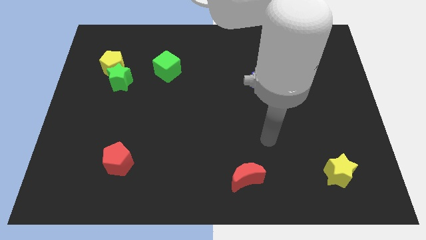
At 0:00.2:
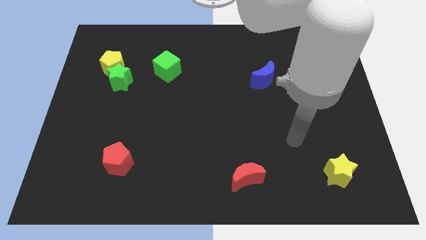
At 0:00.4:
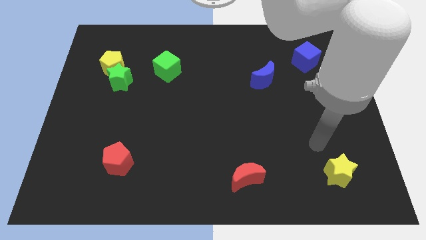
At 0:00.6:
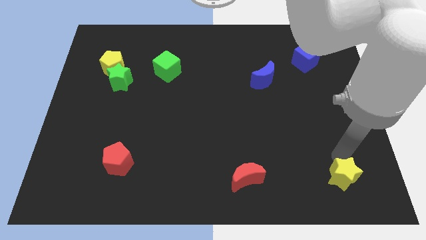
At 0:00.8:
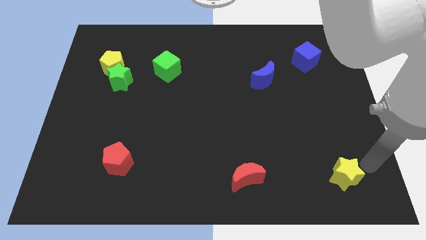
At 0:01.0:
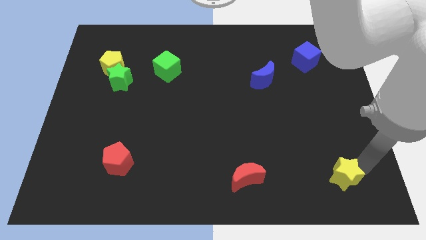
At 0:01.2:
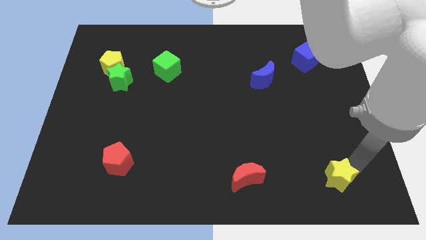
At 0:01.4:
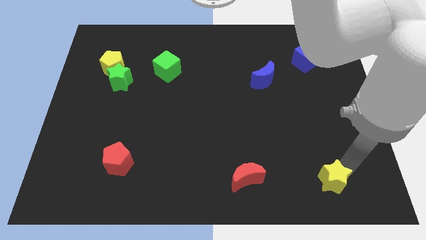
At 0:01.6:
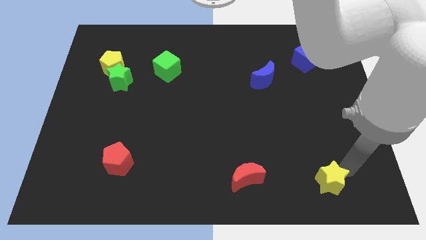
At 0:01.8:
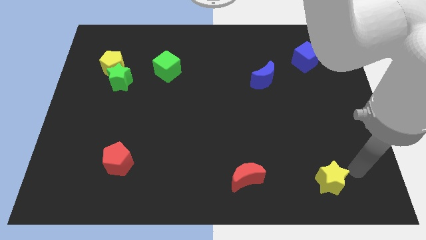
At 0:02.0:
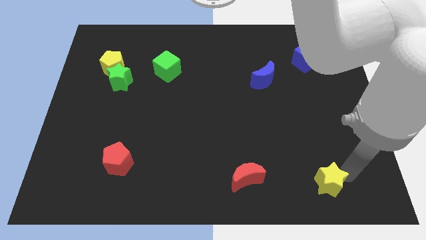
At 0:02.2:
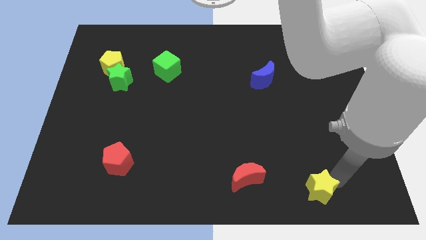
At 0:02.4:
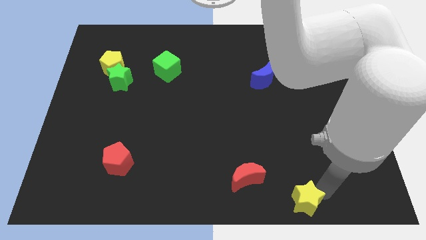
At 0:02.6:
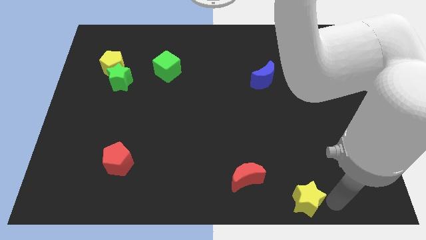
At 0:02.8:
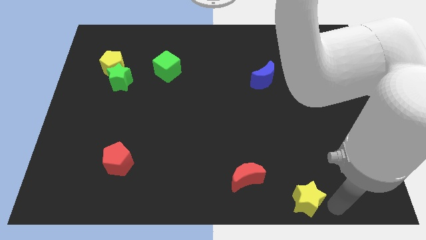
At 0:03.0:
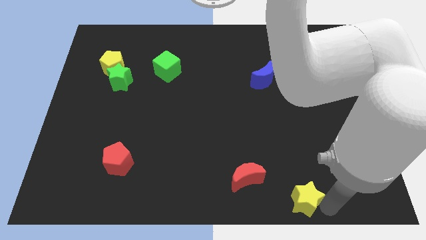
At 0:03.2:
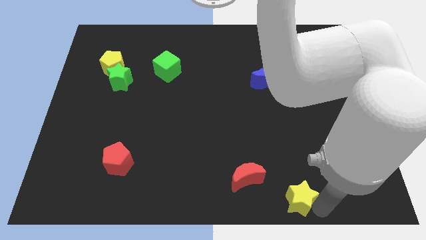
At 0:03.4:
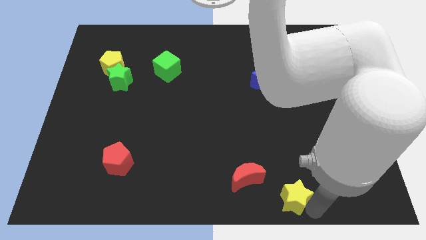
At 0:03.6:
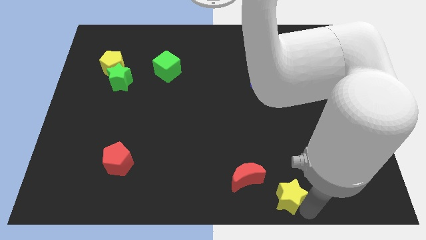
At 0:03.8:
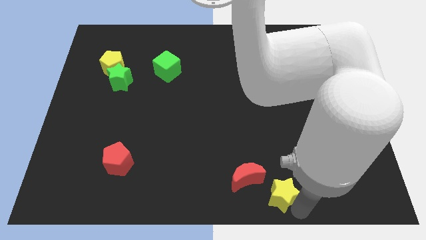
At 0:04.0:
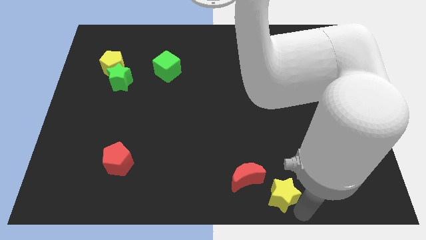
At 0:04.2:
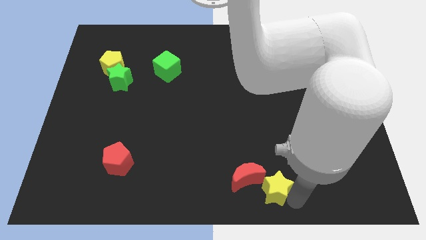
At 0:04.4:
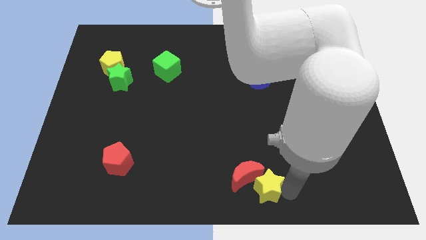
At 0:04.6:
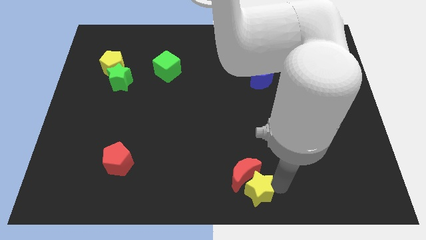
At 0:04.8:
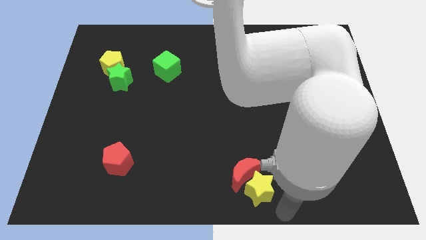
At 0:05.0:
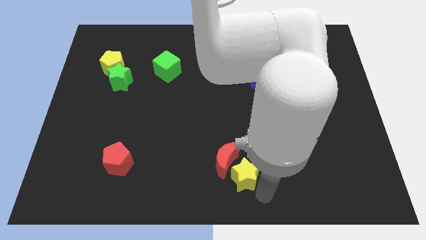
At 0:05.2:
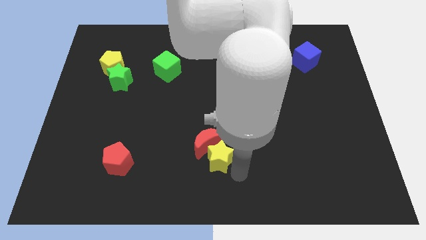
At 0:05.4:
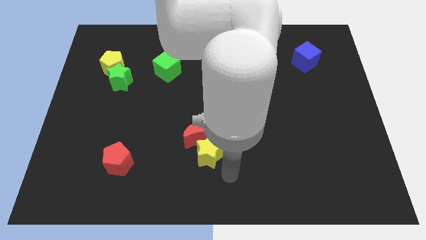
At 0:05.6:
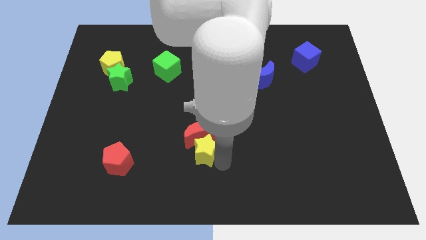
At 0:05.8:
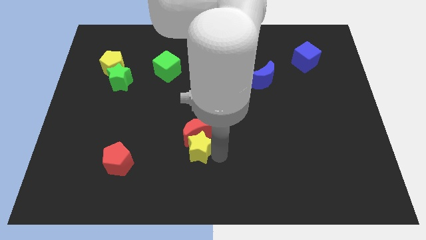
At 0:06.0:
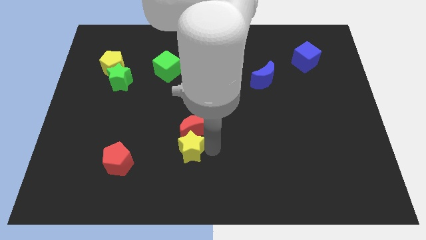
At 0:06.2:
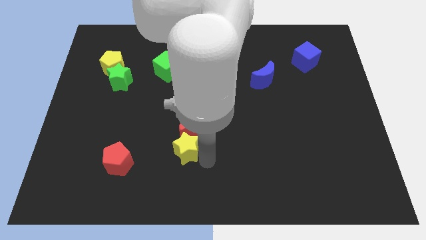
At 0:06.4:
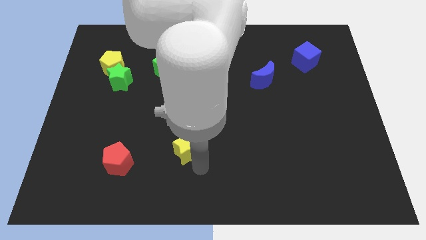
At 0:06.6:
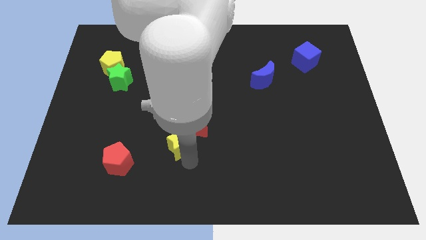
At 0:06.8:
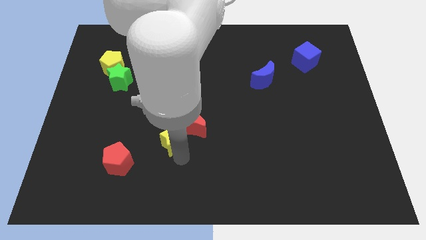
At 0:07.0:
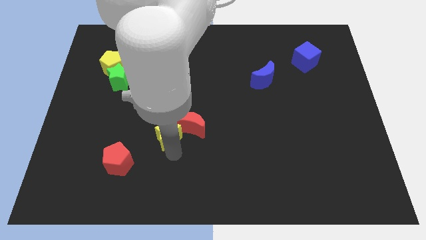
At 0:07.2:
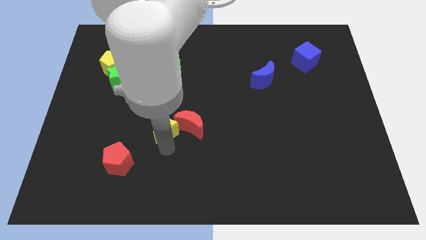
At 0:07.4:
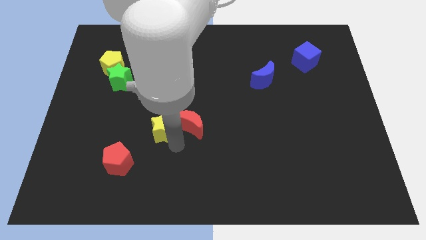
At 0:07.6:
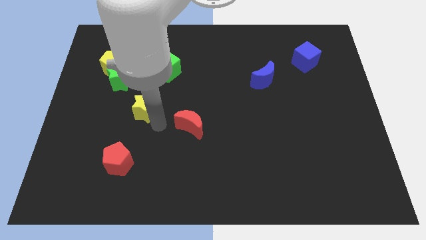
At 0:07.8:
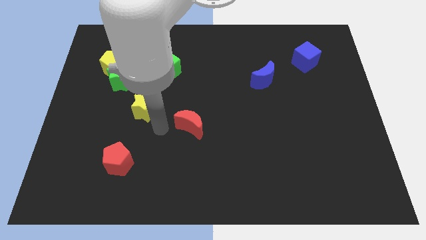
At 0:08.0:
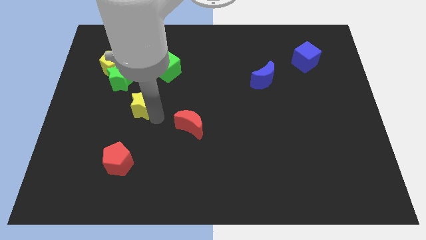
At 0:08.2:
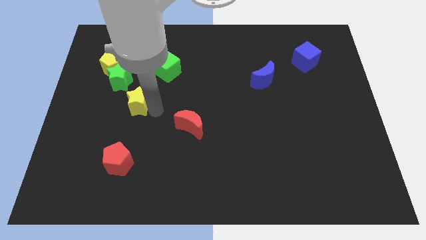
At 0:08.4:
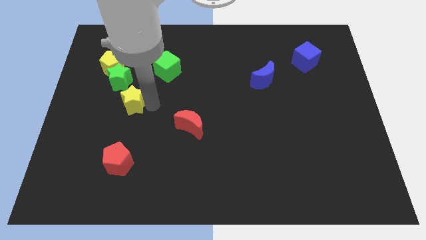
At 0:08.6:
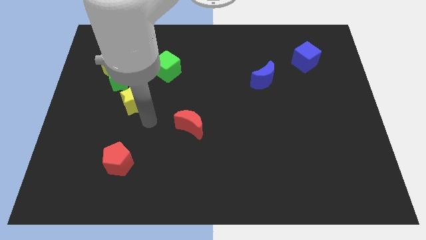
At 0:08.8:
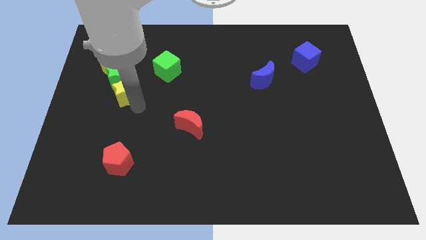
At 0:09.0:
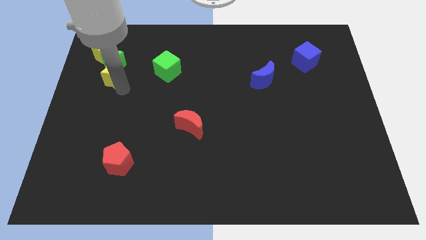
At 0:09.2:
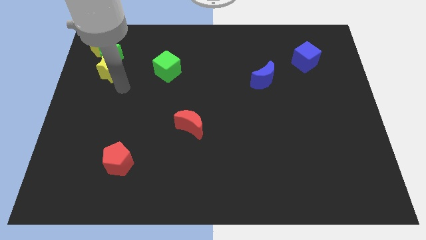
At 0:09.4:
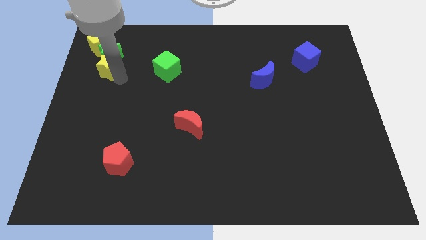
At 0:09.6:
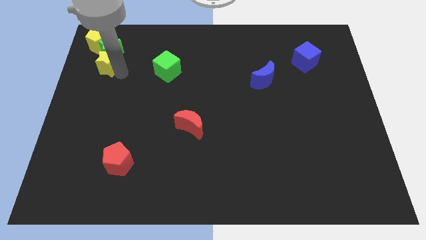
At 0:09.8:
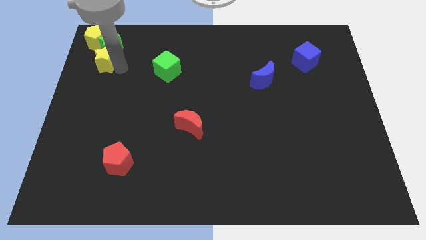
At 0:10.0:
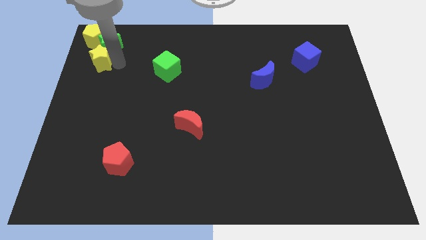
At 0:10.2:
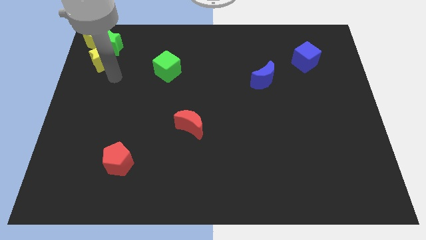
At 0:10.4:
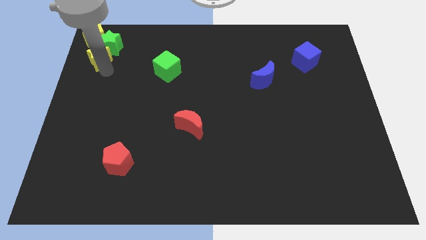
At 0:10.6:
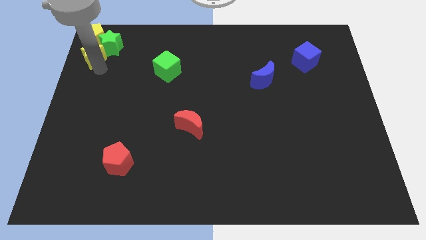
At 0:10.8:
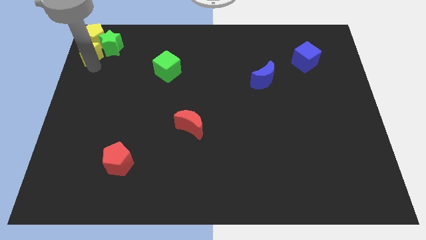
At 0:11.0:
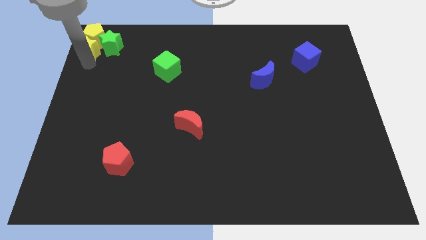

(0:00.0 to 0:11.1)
put the yellow star to the top left of the board

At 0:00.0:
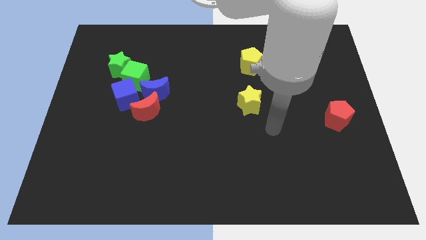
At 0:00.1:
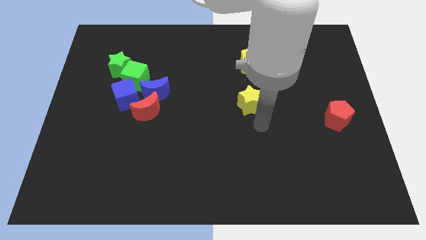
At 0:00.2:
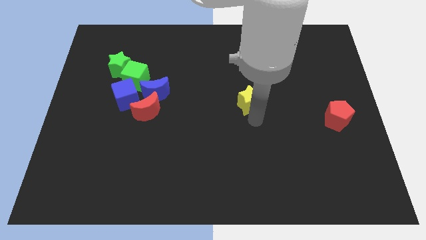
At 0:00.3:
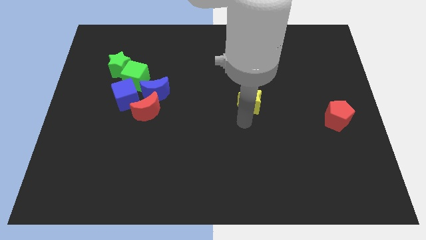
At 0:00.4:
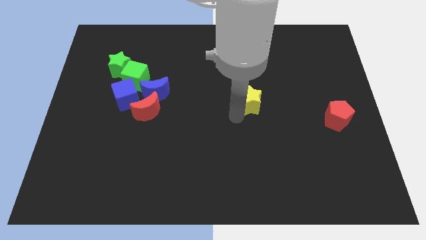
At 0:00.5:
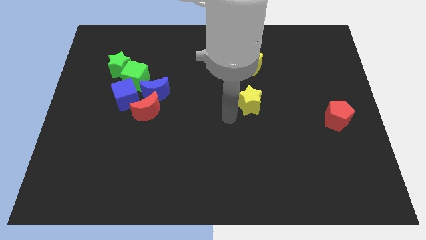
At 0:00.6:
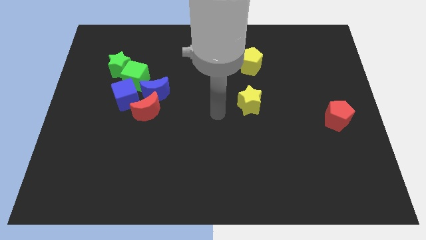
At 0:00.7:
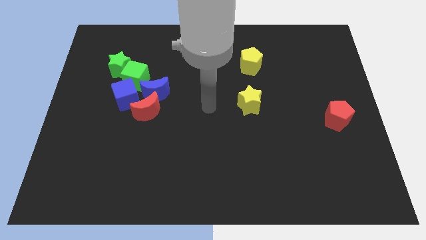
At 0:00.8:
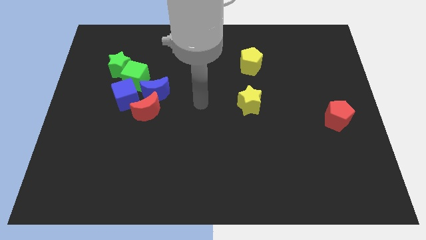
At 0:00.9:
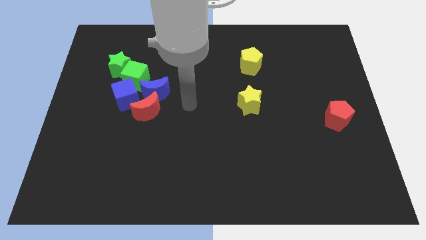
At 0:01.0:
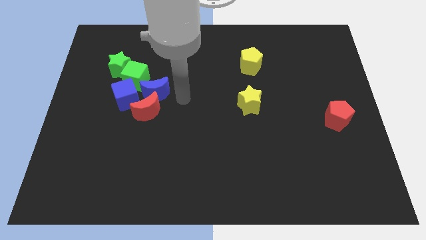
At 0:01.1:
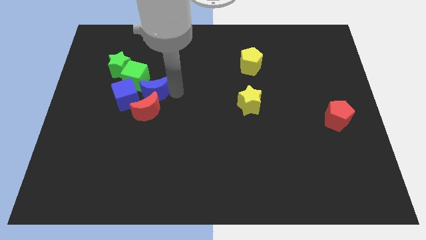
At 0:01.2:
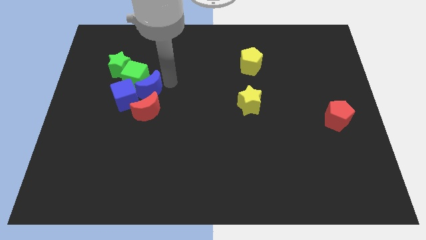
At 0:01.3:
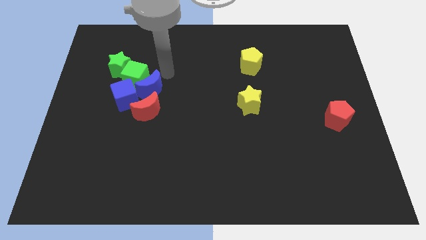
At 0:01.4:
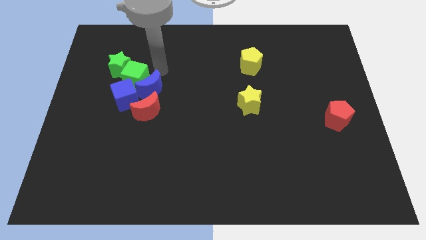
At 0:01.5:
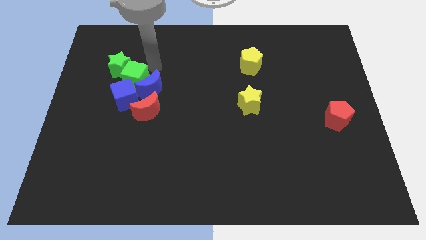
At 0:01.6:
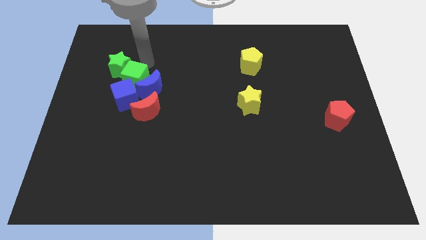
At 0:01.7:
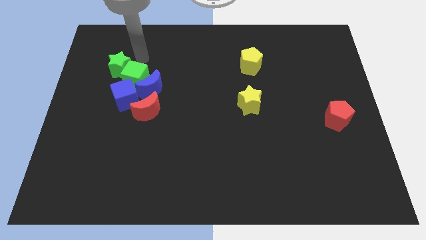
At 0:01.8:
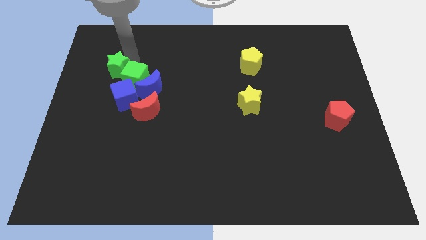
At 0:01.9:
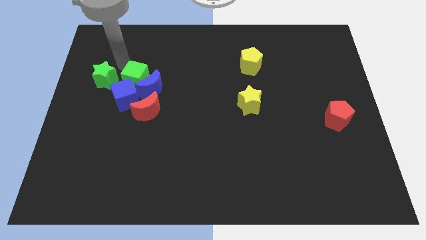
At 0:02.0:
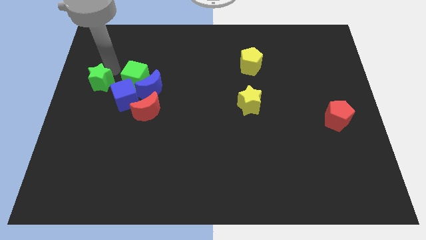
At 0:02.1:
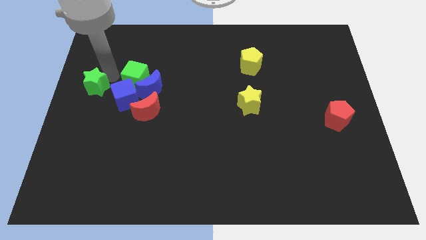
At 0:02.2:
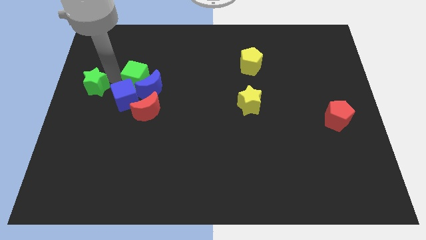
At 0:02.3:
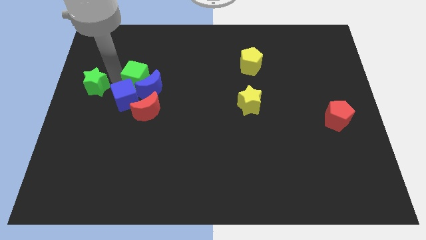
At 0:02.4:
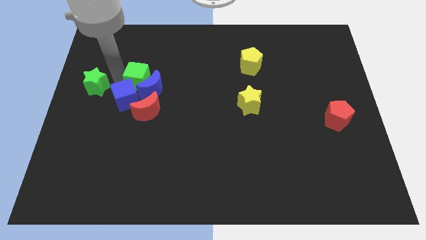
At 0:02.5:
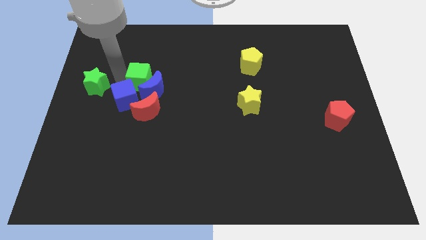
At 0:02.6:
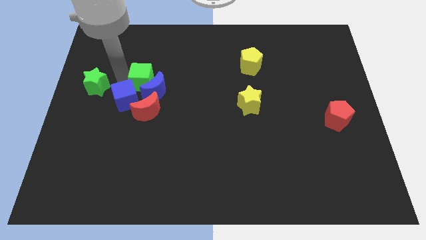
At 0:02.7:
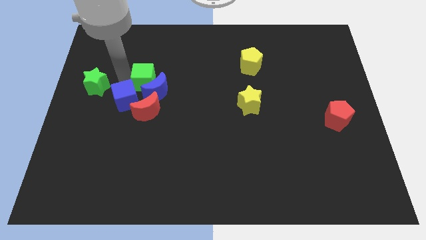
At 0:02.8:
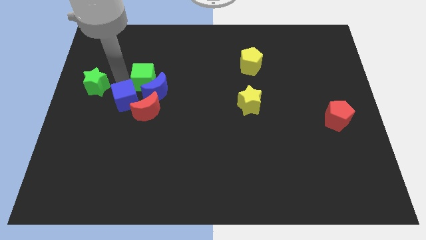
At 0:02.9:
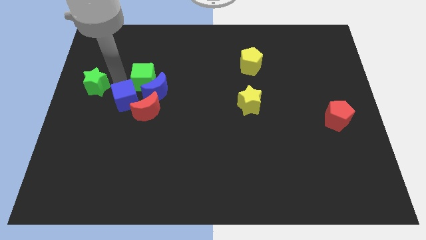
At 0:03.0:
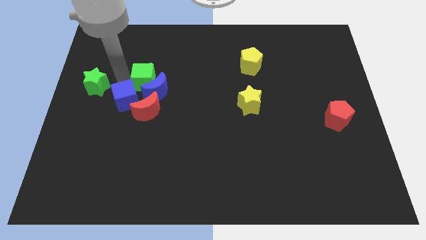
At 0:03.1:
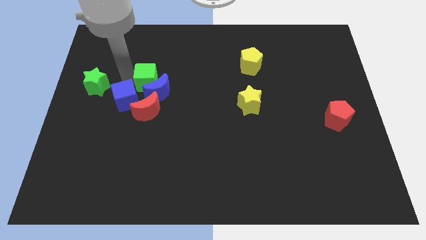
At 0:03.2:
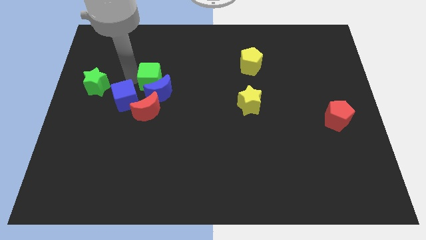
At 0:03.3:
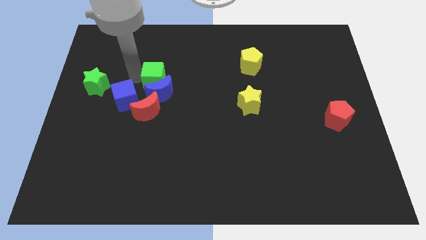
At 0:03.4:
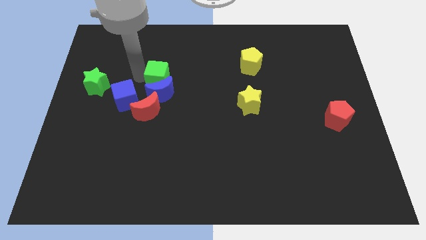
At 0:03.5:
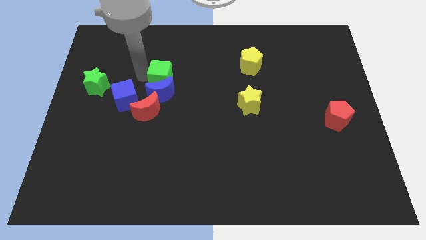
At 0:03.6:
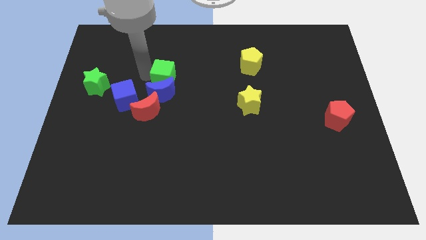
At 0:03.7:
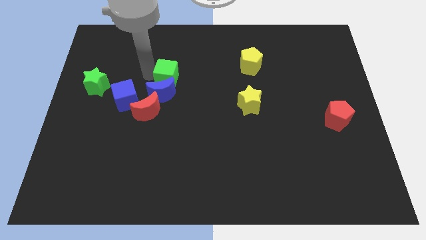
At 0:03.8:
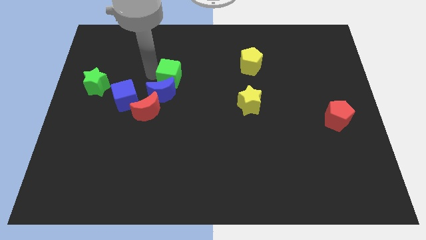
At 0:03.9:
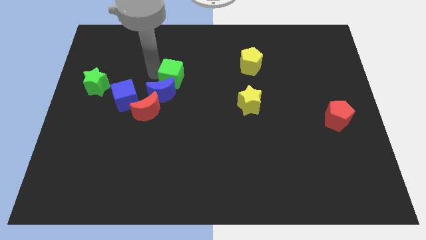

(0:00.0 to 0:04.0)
move the green cube to the center of the board
